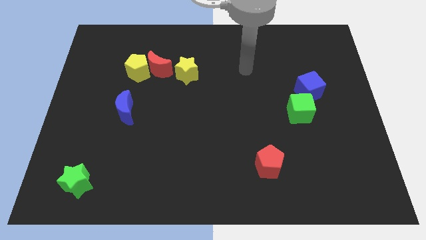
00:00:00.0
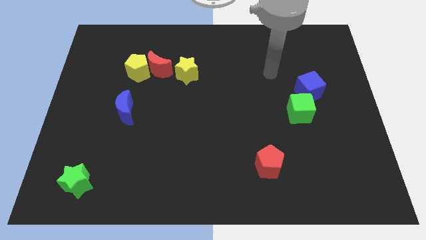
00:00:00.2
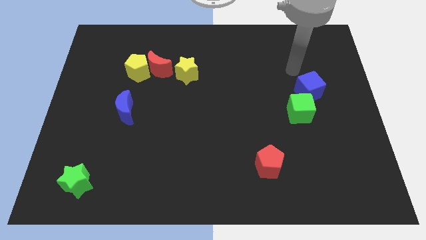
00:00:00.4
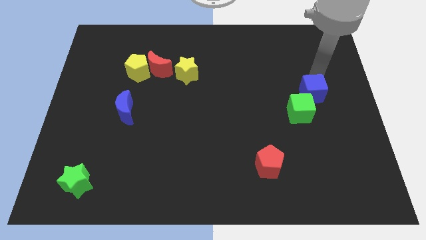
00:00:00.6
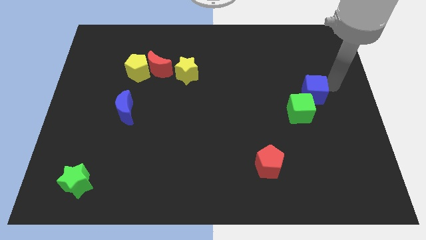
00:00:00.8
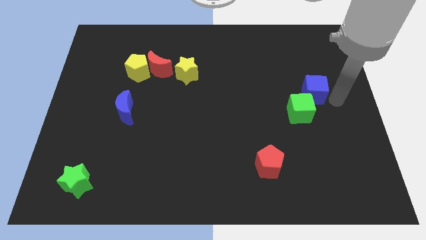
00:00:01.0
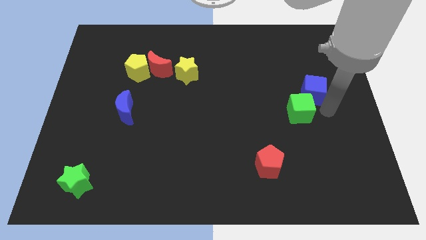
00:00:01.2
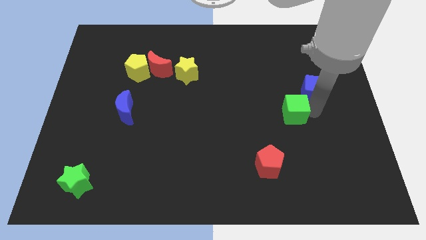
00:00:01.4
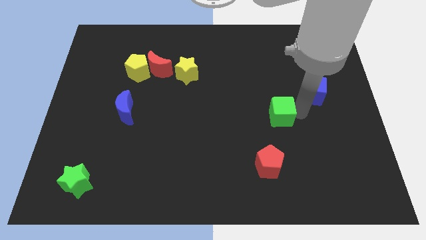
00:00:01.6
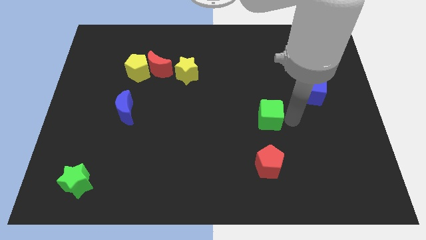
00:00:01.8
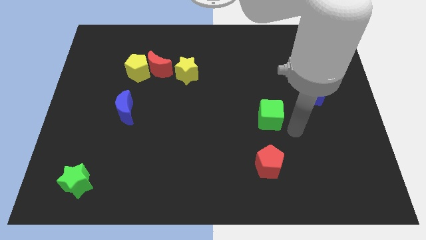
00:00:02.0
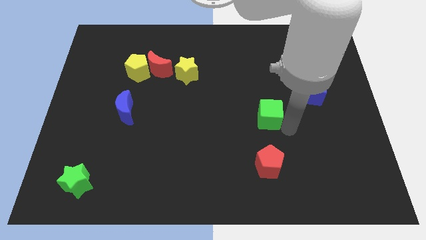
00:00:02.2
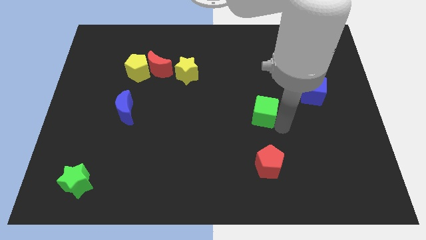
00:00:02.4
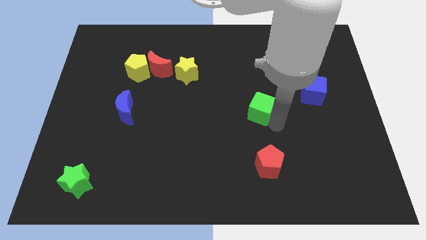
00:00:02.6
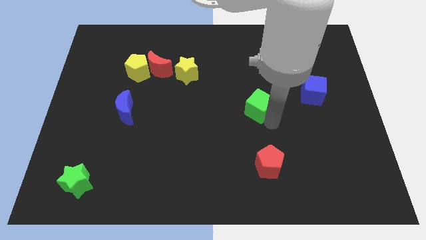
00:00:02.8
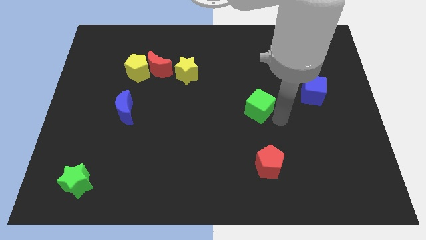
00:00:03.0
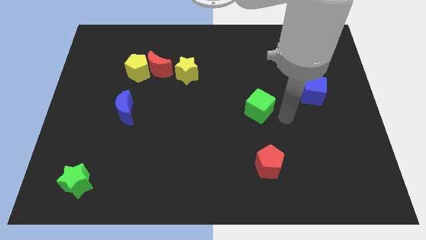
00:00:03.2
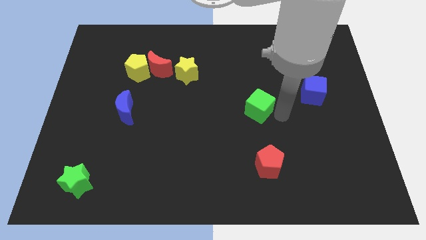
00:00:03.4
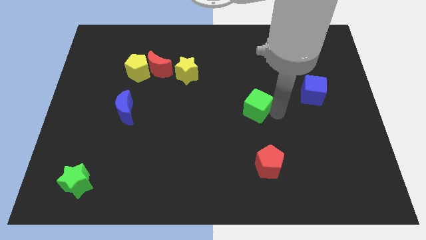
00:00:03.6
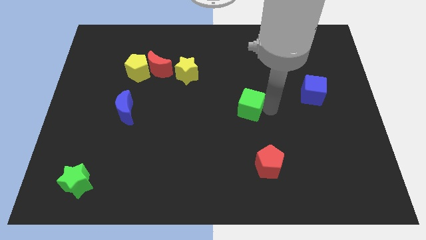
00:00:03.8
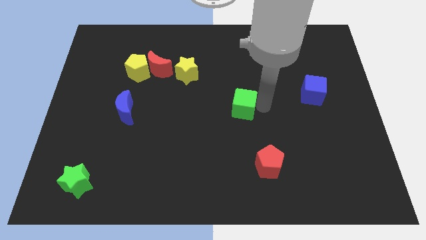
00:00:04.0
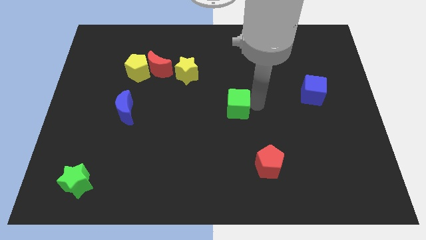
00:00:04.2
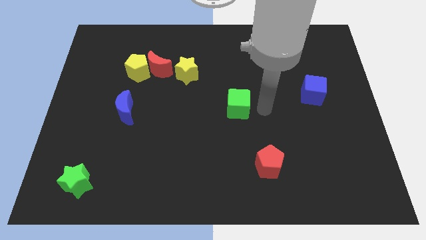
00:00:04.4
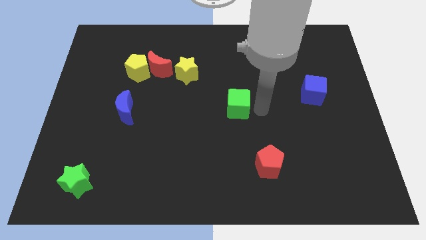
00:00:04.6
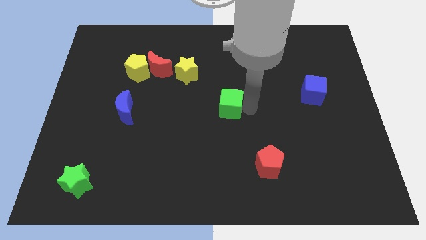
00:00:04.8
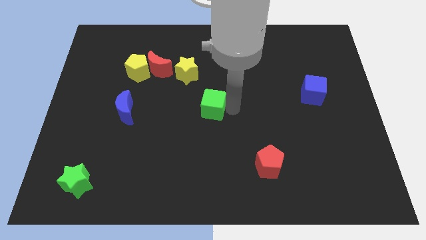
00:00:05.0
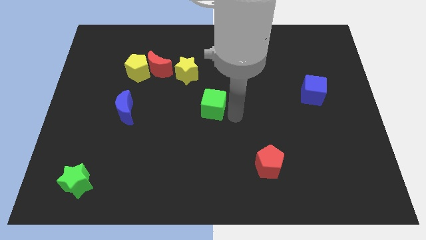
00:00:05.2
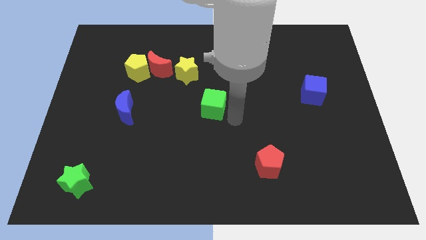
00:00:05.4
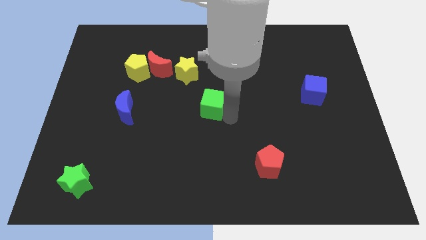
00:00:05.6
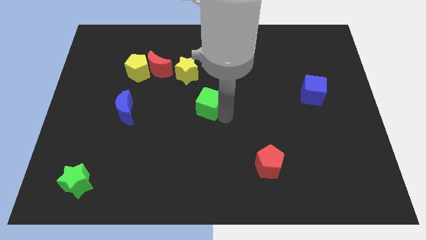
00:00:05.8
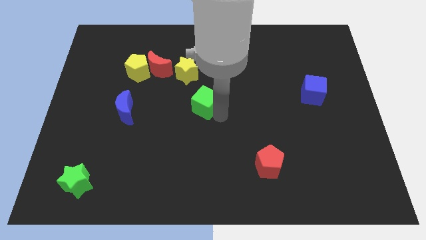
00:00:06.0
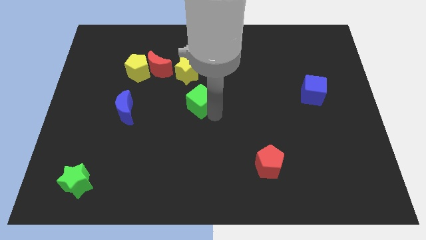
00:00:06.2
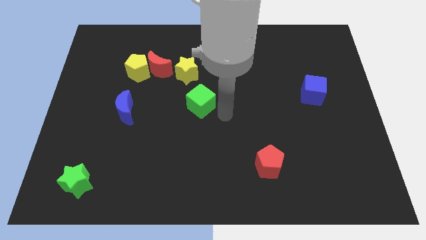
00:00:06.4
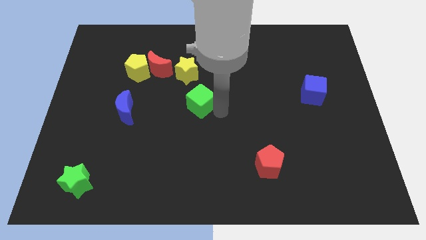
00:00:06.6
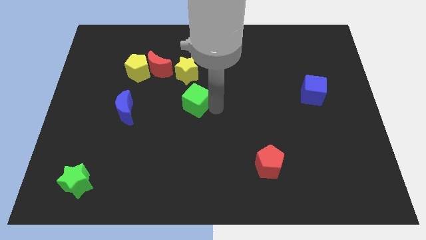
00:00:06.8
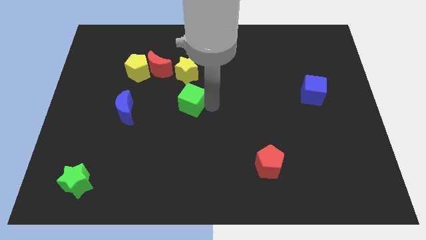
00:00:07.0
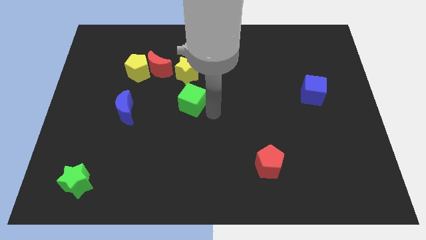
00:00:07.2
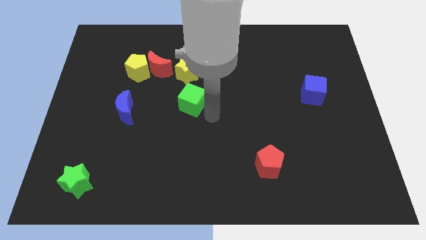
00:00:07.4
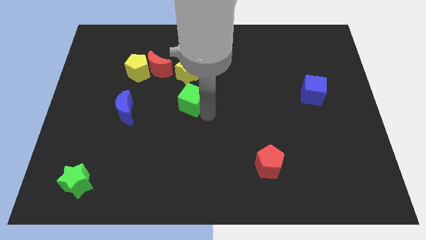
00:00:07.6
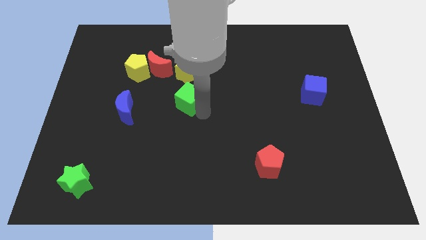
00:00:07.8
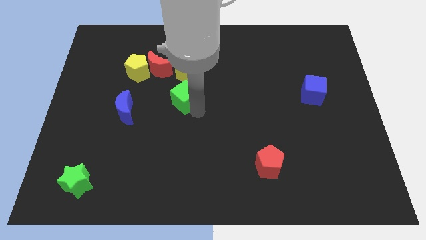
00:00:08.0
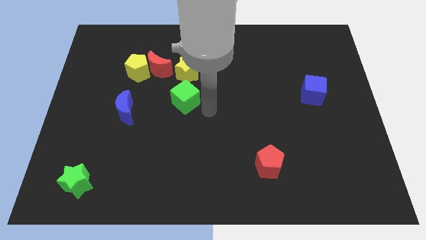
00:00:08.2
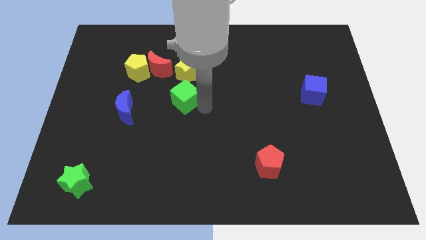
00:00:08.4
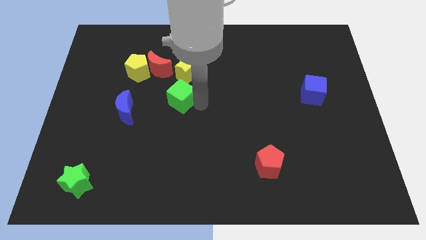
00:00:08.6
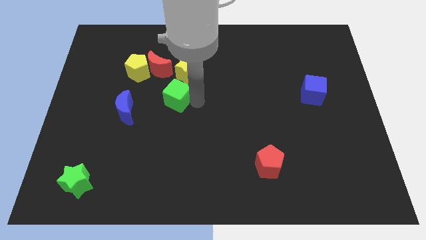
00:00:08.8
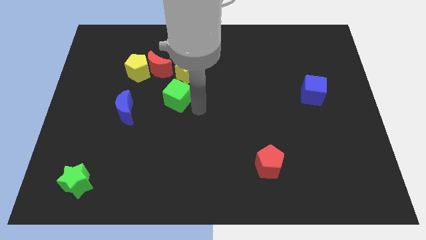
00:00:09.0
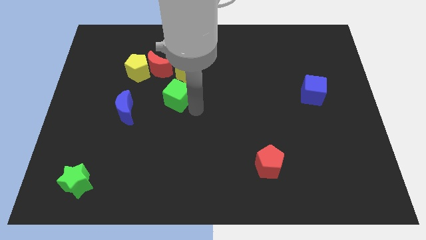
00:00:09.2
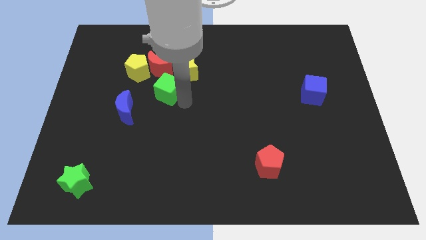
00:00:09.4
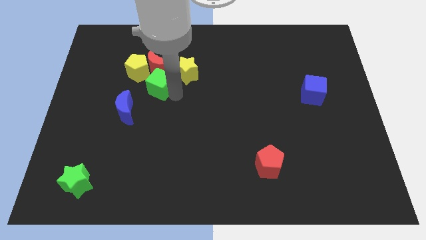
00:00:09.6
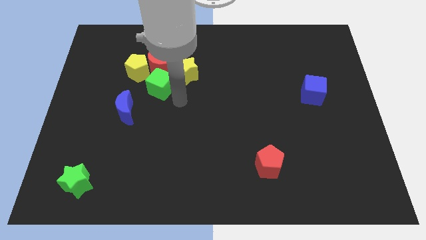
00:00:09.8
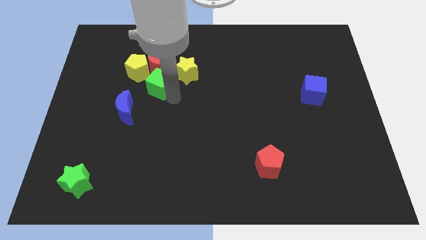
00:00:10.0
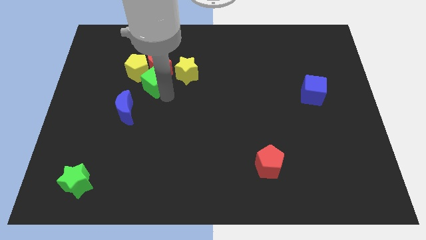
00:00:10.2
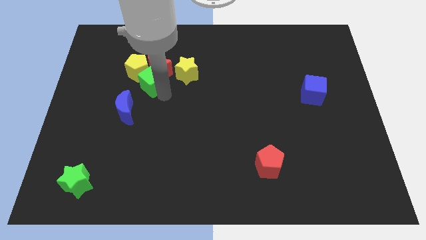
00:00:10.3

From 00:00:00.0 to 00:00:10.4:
push the green cube close to the yellow pentagon

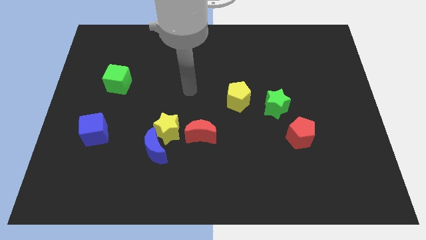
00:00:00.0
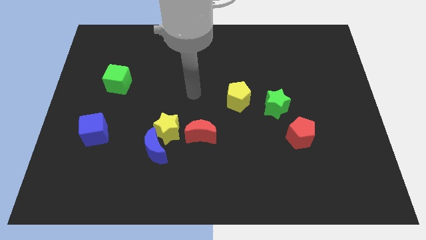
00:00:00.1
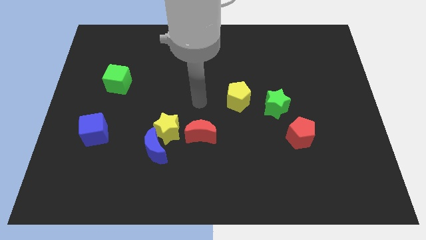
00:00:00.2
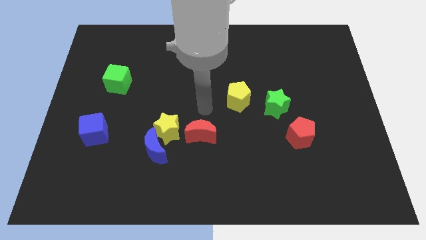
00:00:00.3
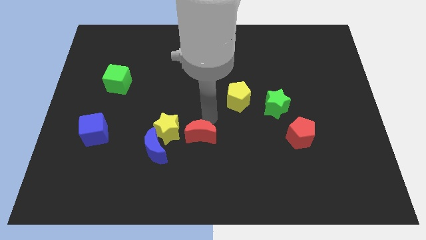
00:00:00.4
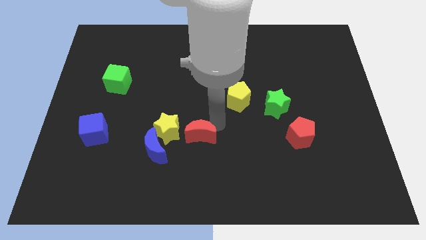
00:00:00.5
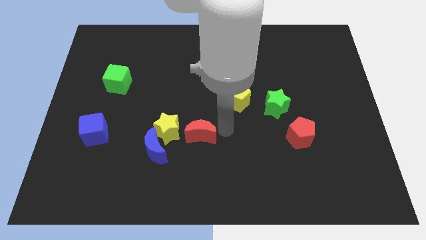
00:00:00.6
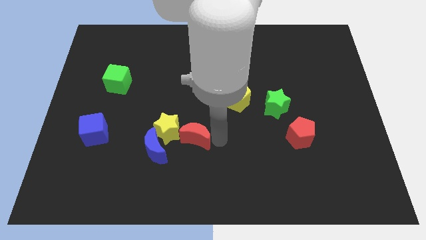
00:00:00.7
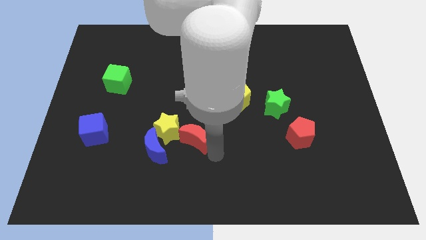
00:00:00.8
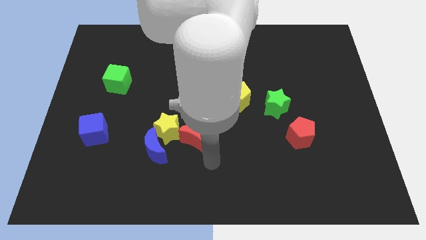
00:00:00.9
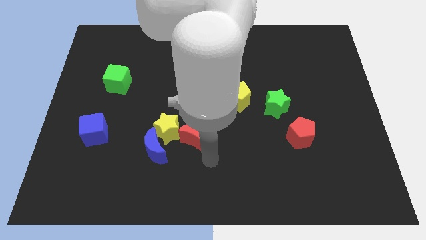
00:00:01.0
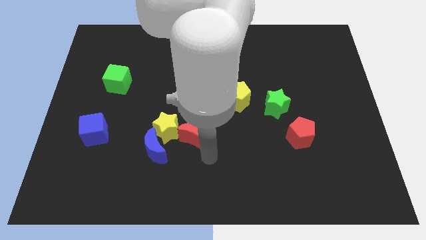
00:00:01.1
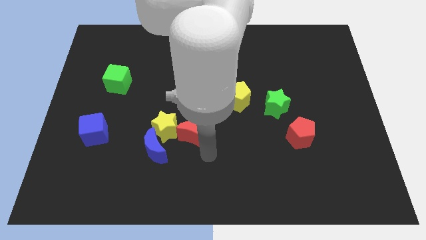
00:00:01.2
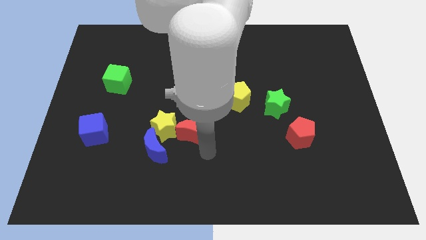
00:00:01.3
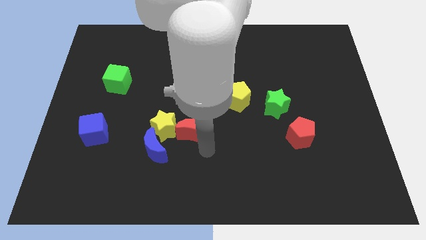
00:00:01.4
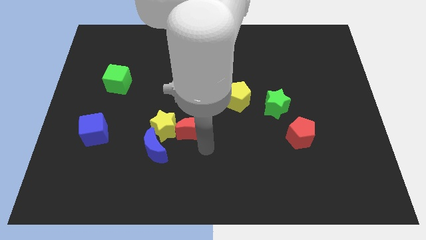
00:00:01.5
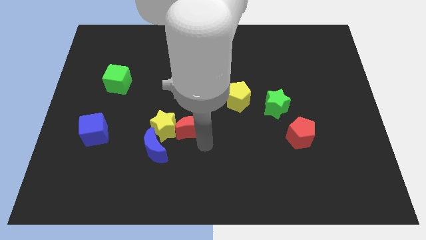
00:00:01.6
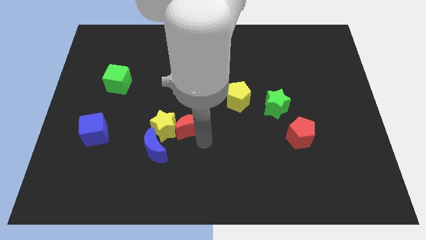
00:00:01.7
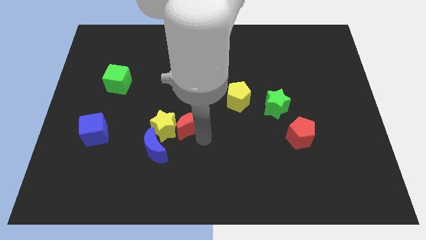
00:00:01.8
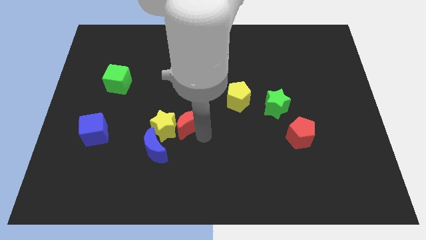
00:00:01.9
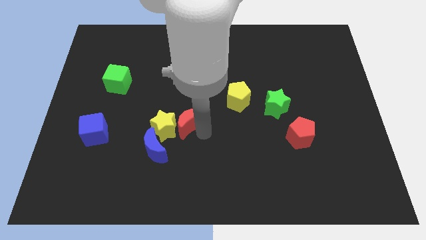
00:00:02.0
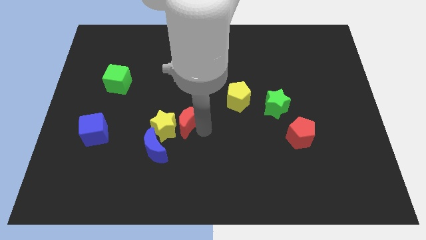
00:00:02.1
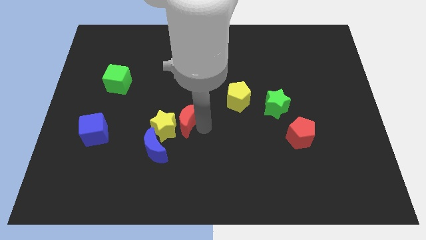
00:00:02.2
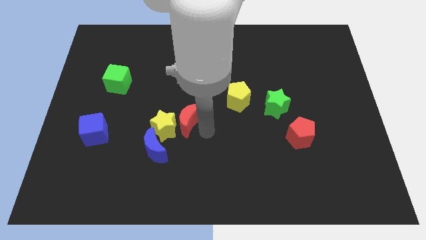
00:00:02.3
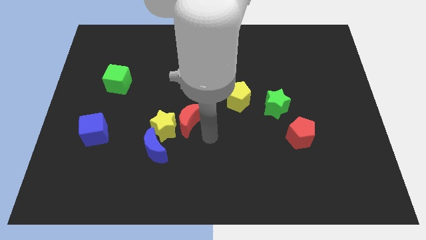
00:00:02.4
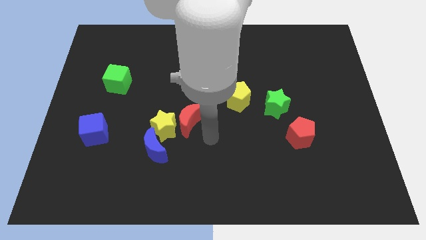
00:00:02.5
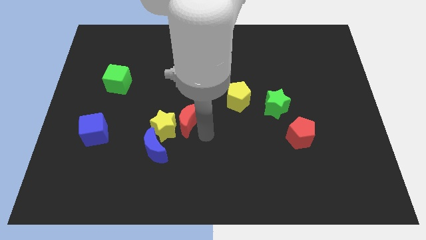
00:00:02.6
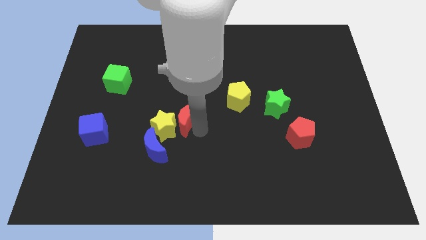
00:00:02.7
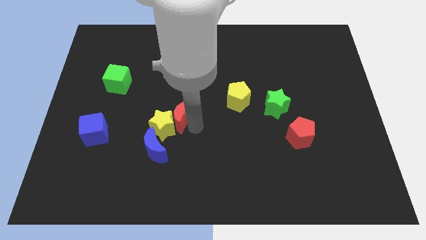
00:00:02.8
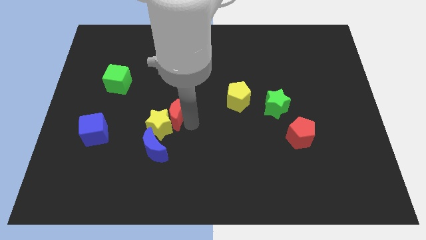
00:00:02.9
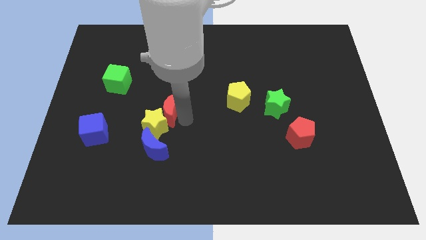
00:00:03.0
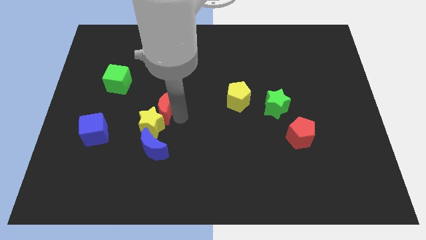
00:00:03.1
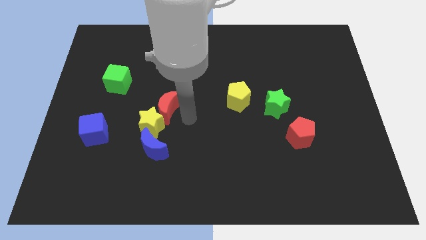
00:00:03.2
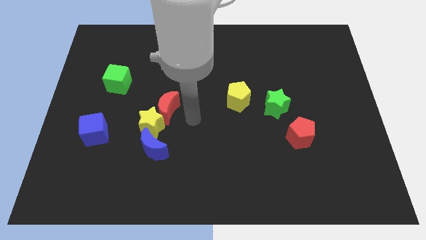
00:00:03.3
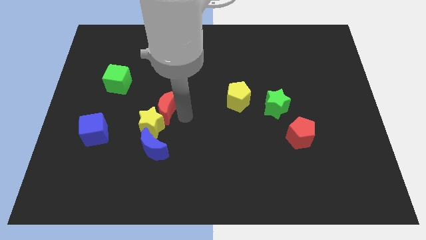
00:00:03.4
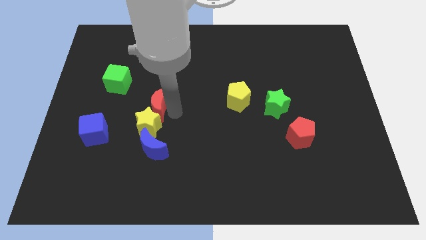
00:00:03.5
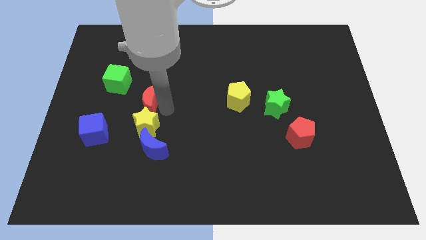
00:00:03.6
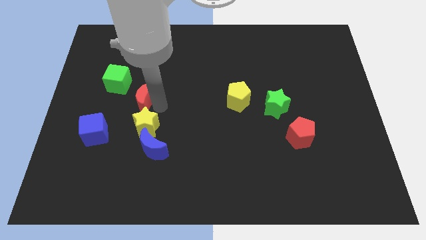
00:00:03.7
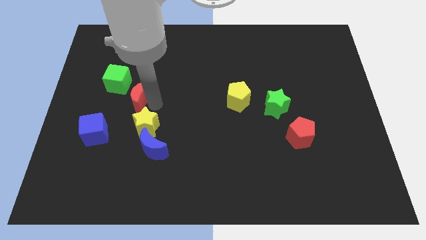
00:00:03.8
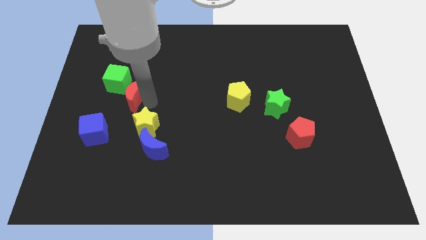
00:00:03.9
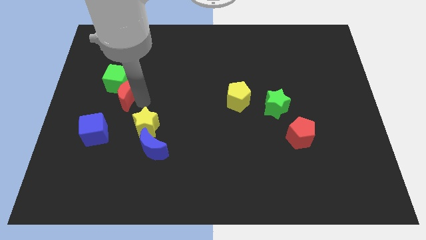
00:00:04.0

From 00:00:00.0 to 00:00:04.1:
put the red moon close to the green cube
